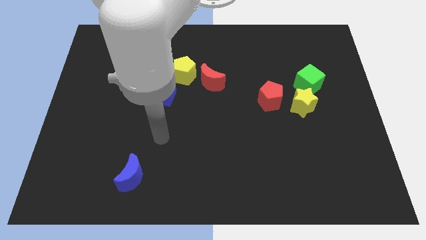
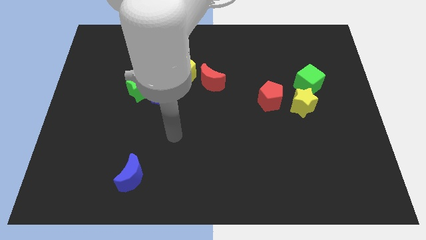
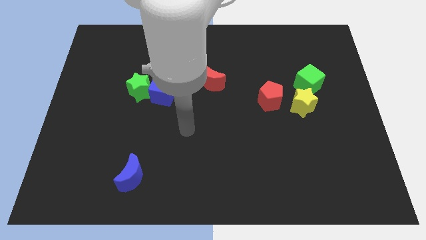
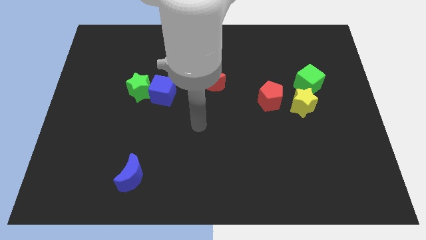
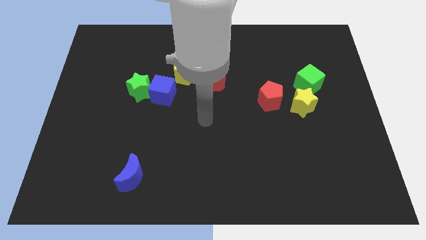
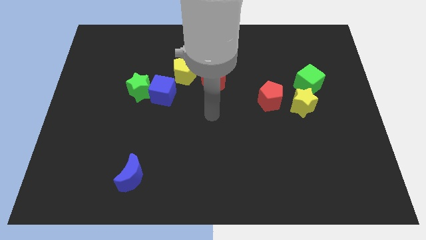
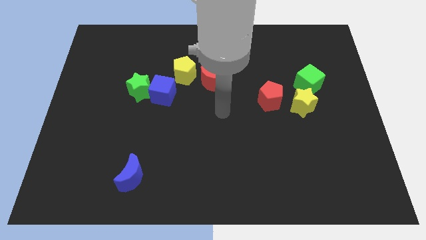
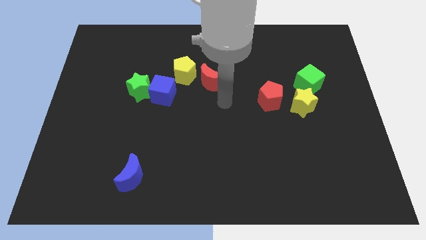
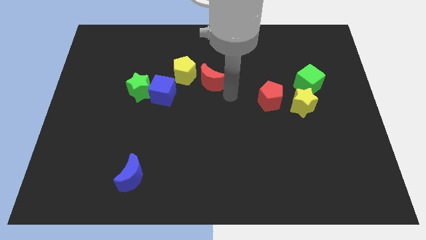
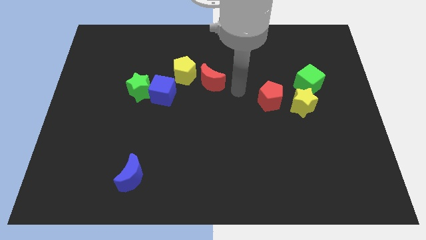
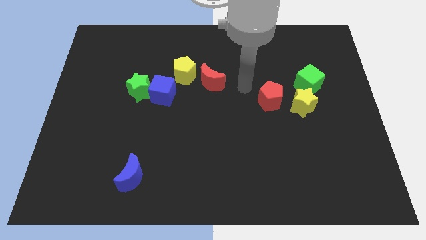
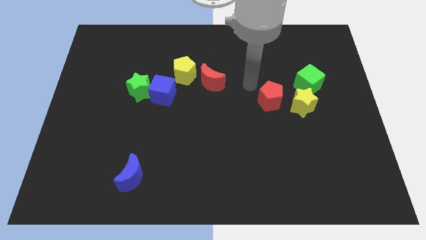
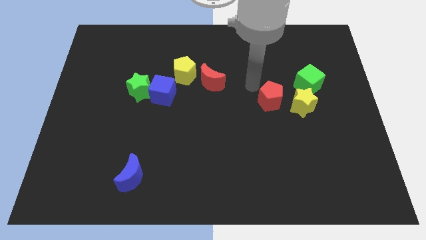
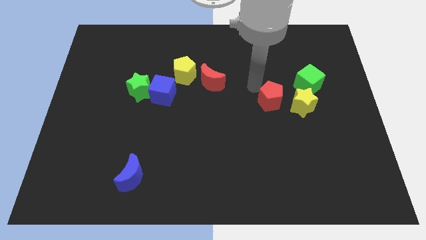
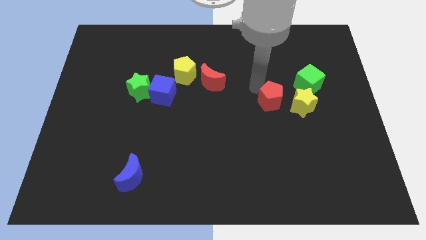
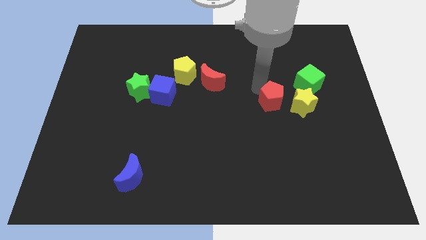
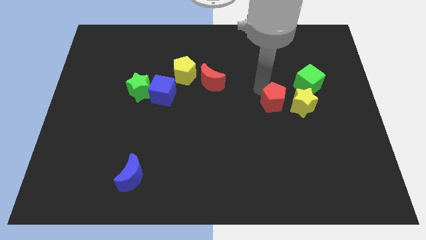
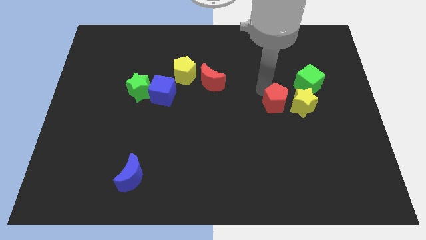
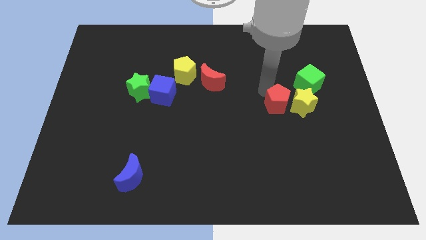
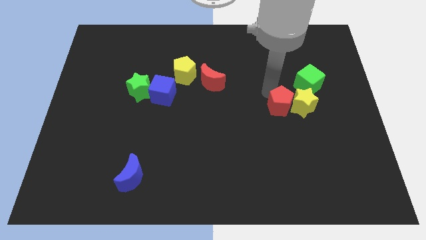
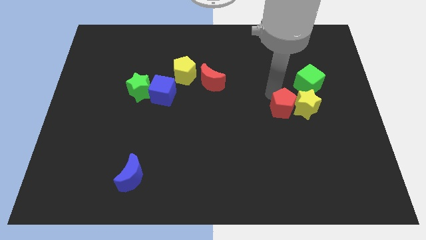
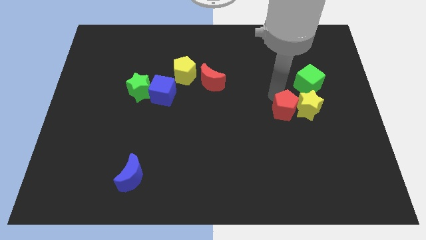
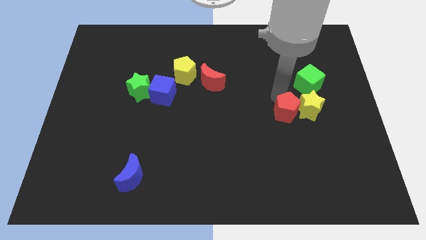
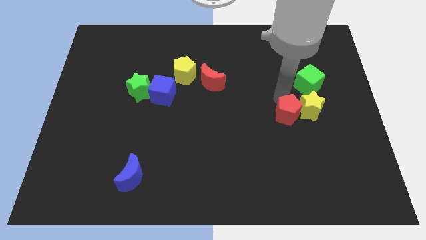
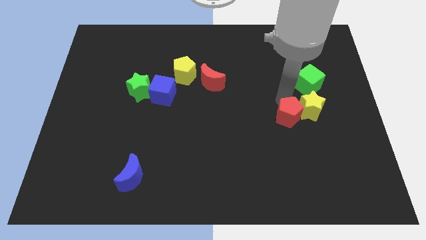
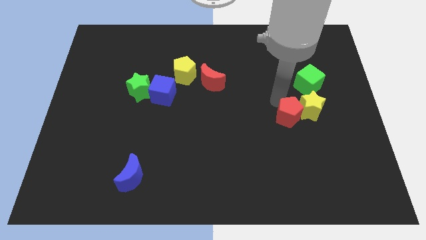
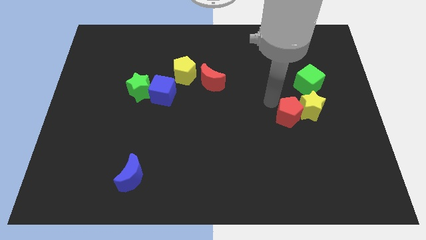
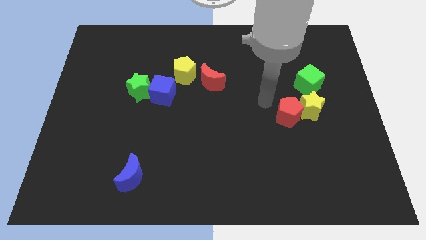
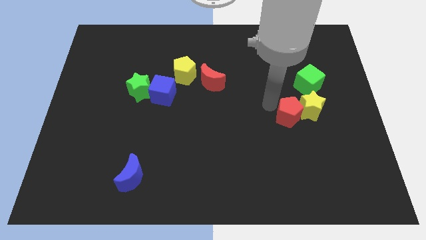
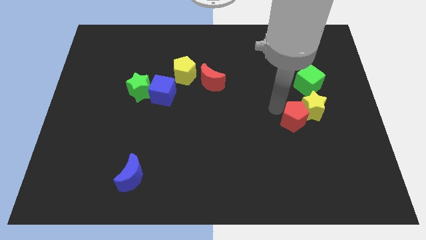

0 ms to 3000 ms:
slightly slide the red pentagon down and then to the right

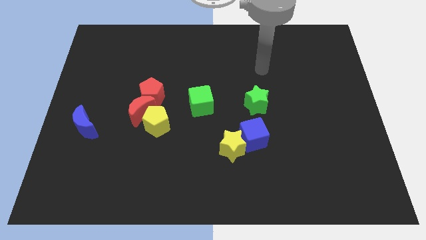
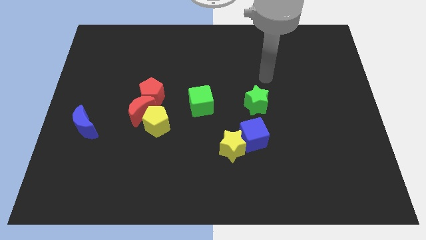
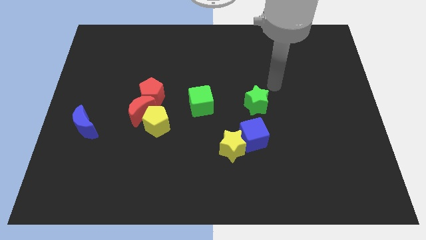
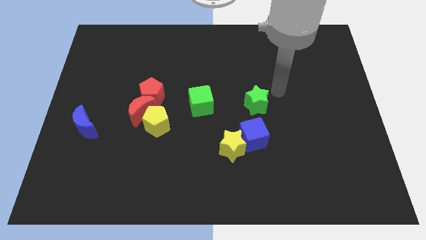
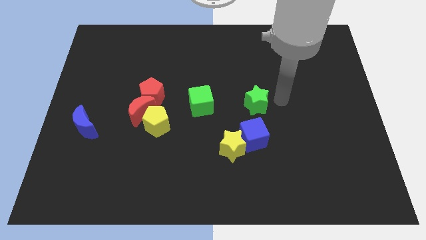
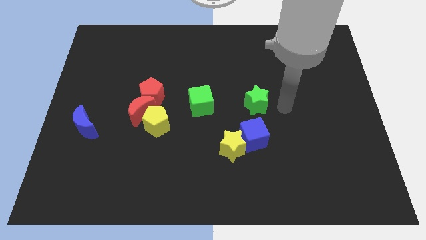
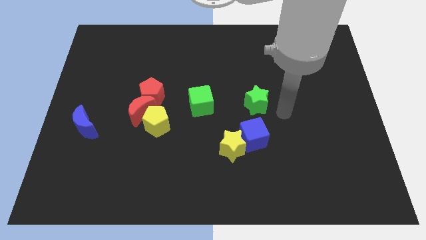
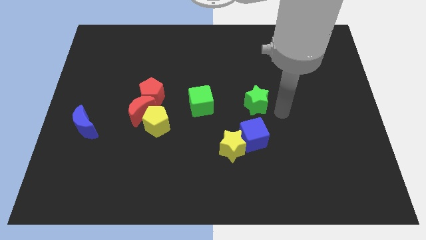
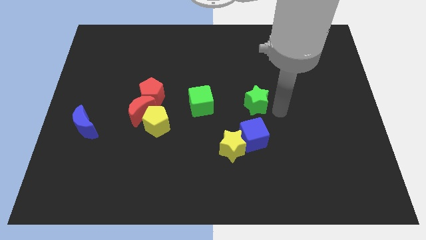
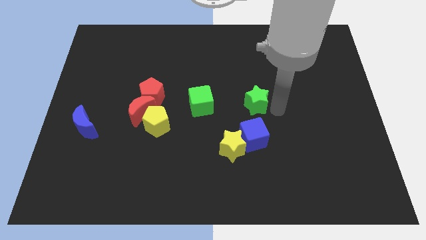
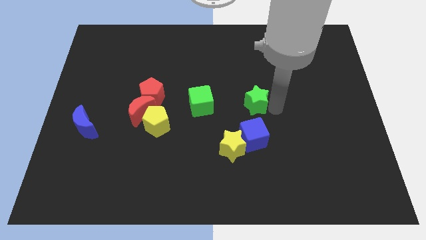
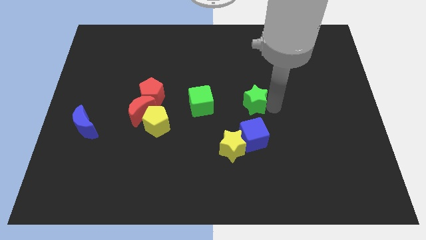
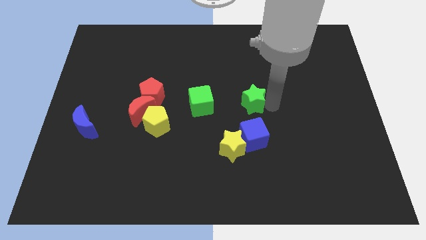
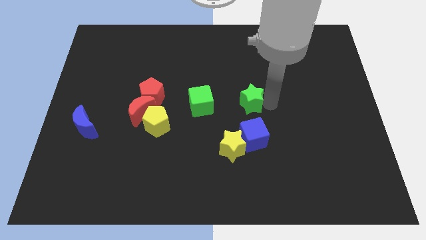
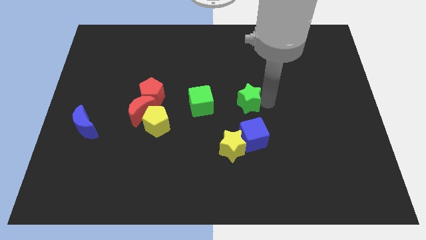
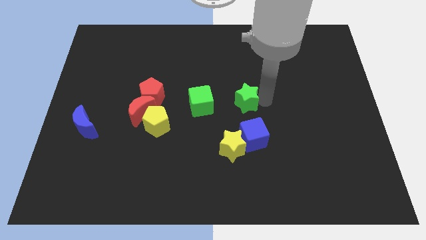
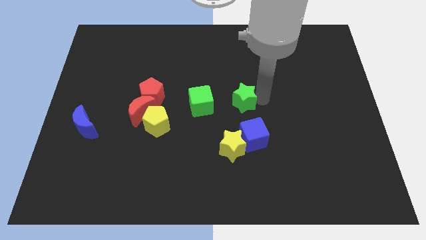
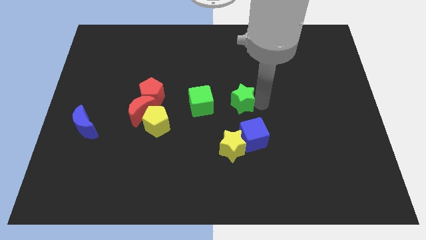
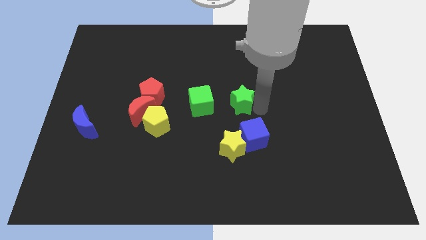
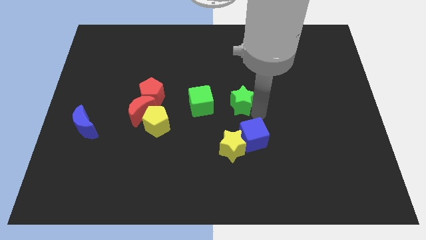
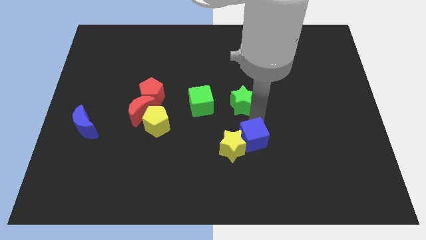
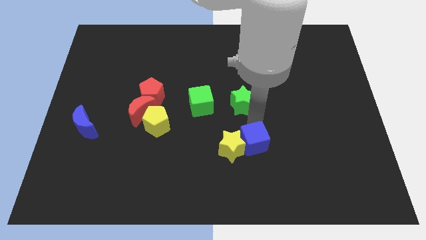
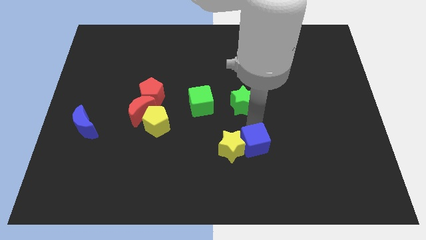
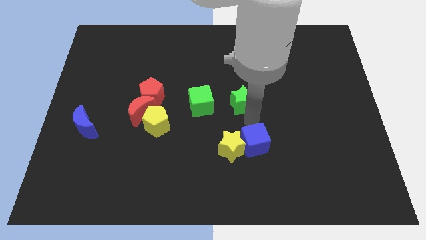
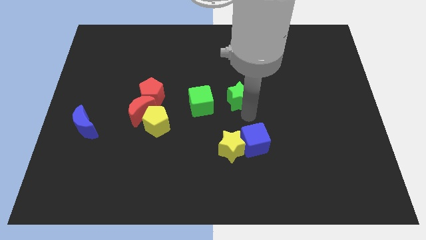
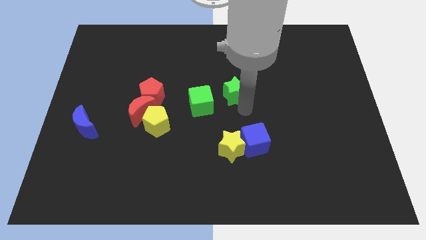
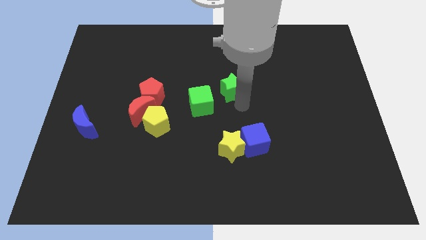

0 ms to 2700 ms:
move the green star diagonally up and left a little

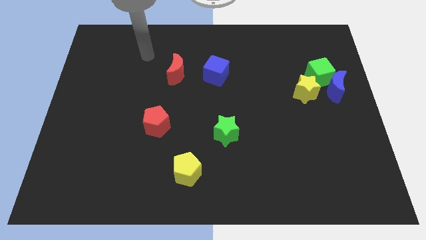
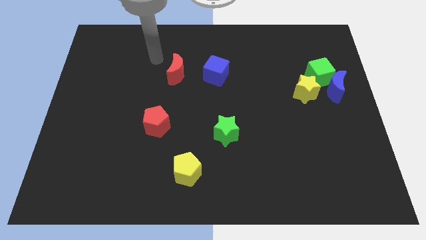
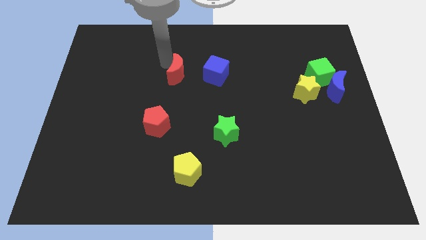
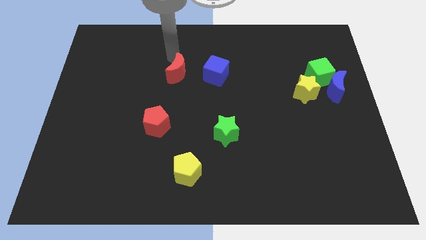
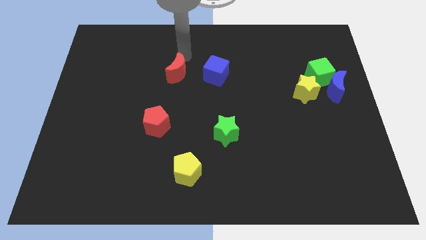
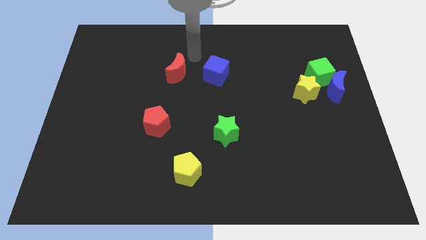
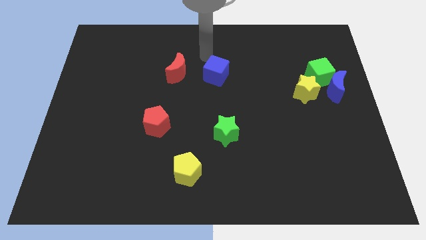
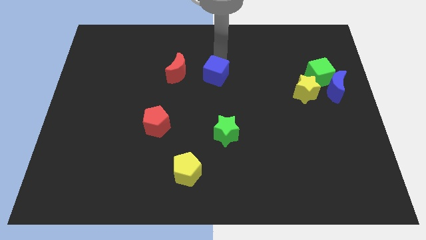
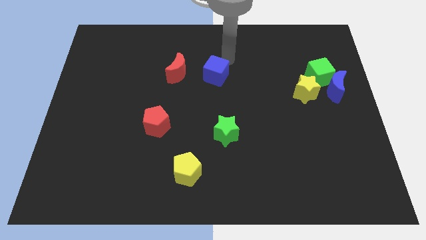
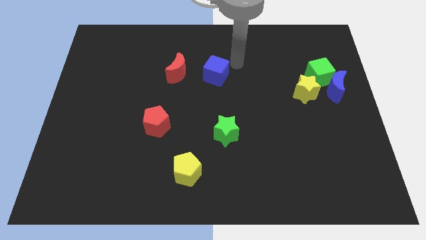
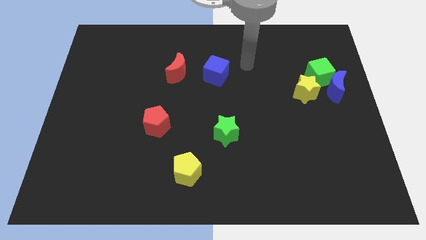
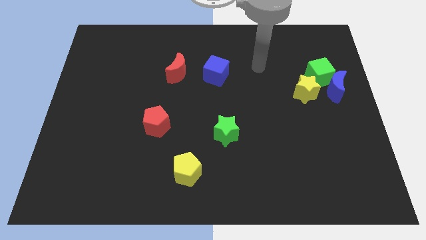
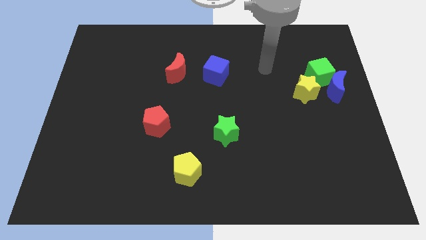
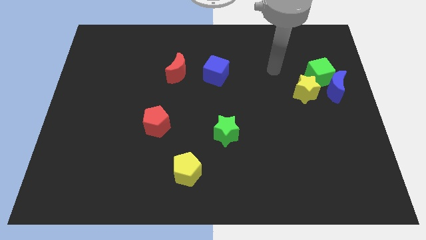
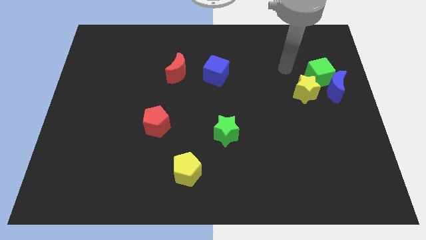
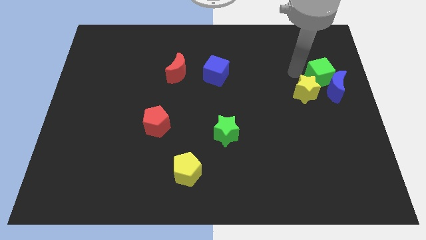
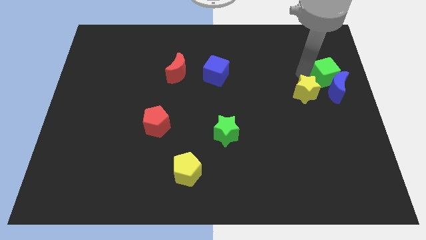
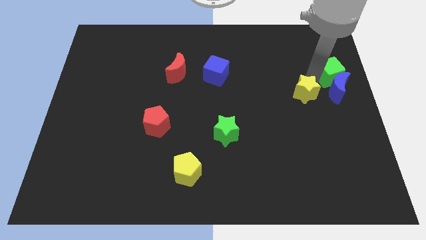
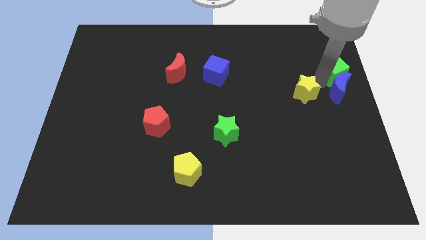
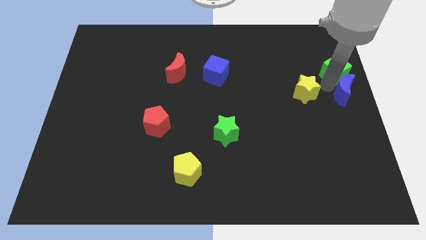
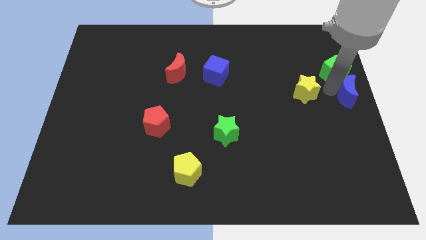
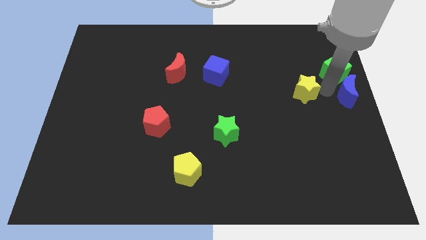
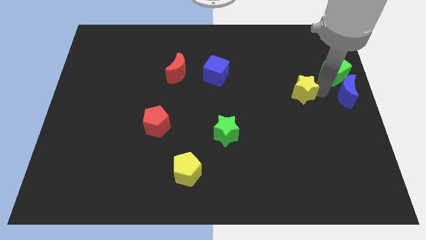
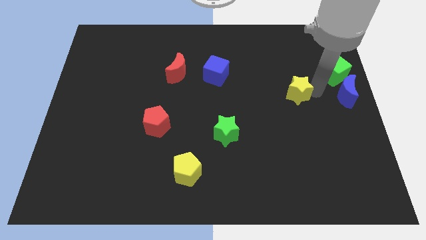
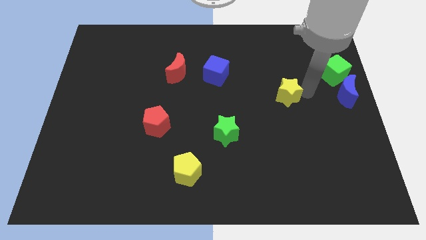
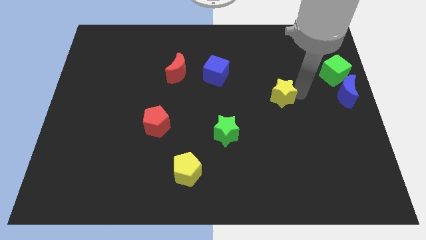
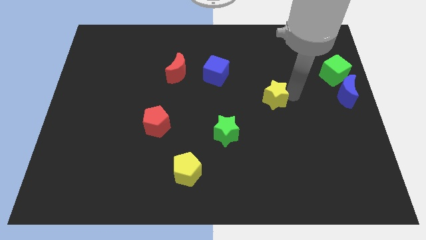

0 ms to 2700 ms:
move the yellow star to the left somewhat
